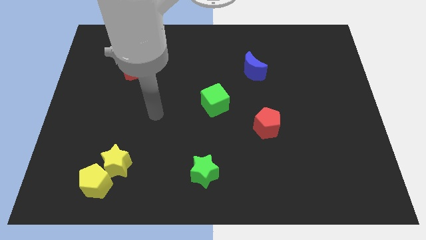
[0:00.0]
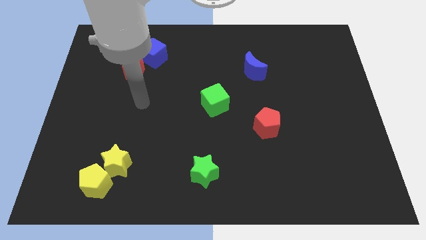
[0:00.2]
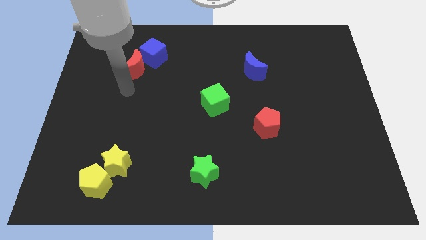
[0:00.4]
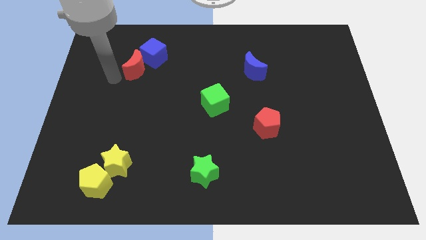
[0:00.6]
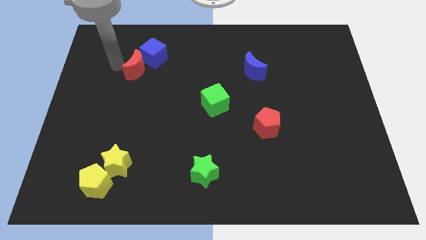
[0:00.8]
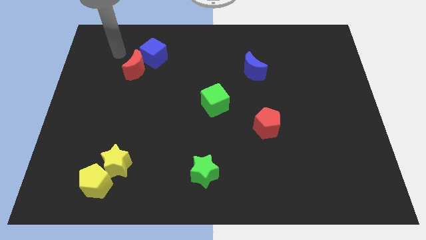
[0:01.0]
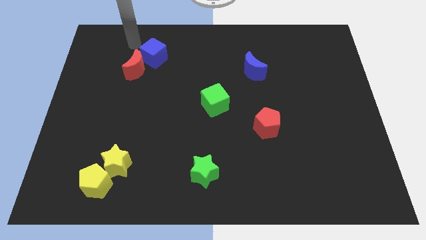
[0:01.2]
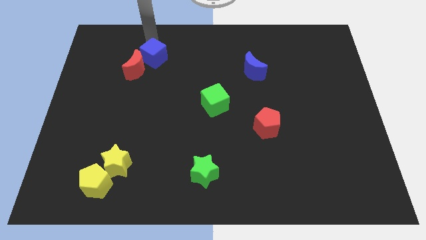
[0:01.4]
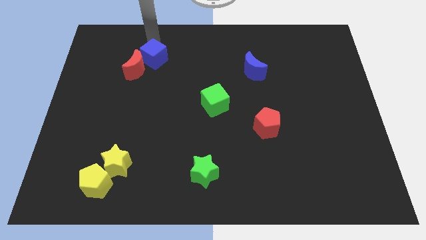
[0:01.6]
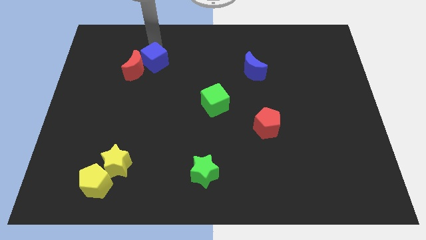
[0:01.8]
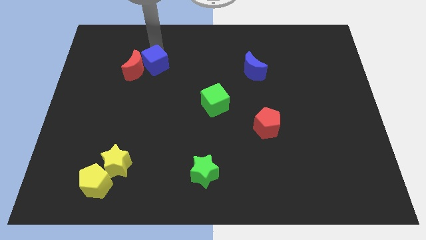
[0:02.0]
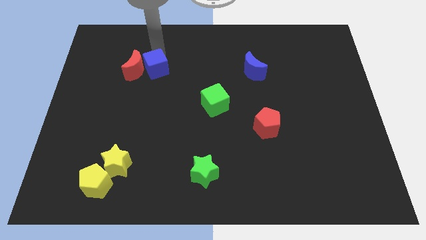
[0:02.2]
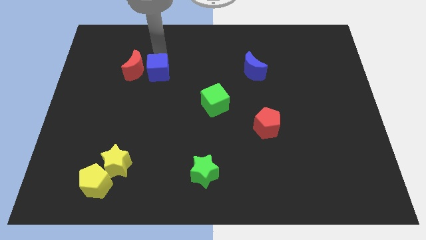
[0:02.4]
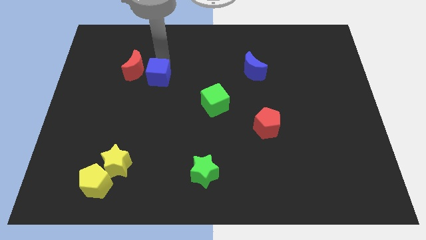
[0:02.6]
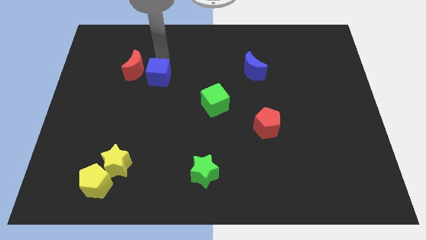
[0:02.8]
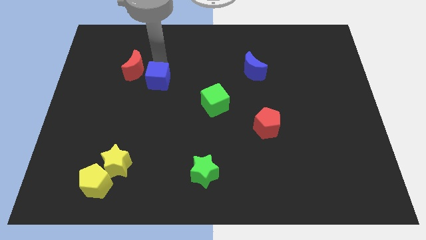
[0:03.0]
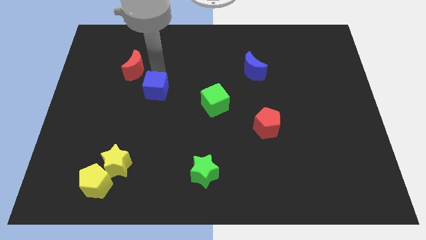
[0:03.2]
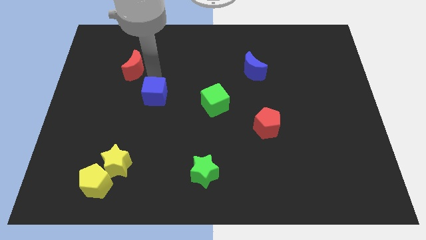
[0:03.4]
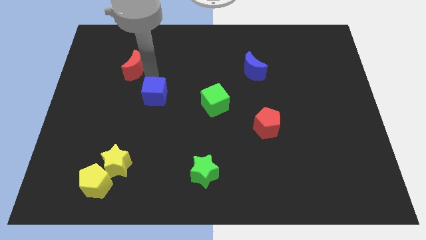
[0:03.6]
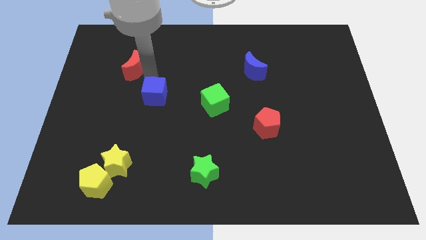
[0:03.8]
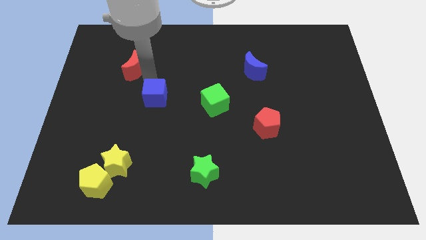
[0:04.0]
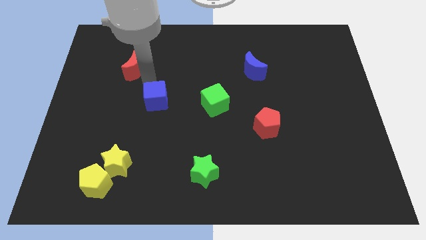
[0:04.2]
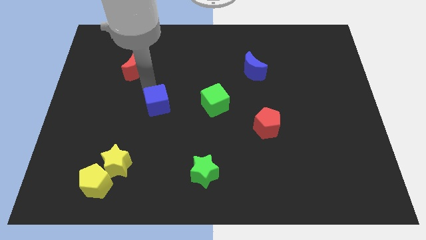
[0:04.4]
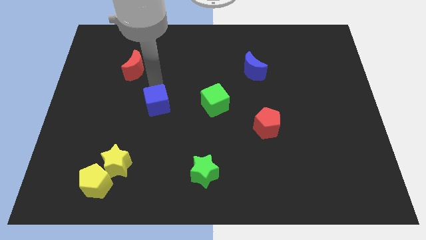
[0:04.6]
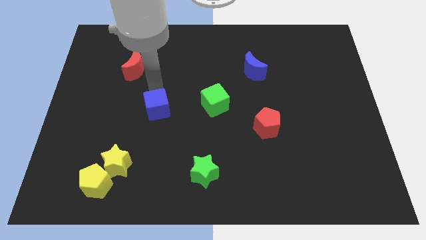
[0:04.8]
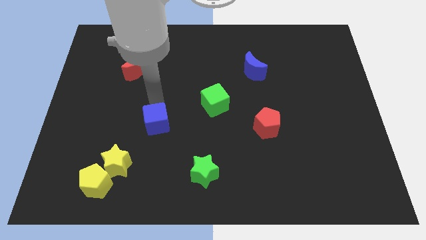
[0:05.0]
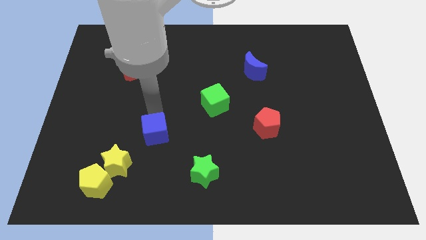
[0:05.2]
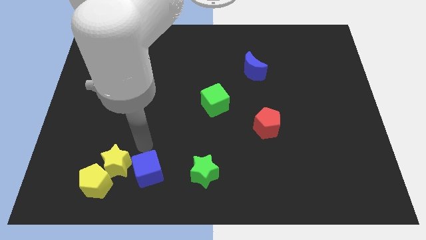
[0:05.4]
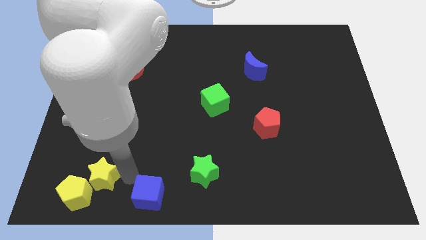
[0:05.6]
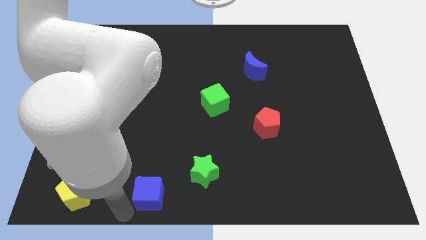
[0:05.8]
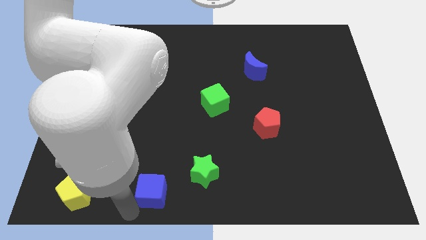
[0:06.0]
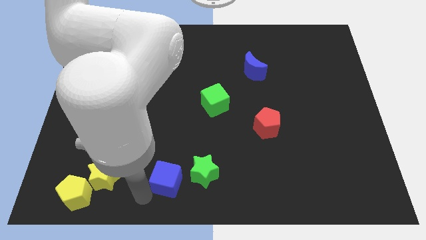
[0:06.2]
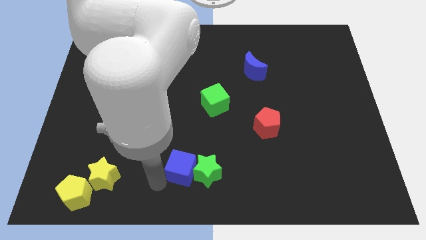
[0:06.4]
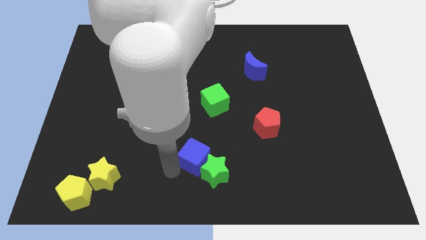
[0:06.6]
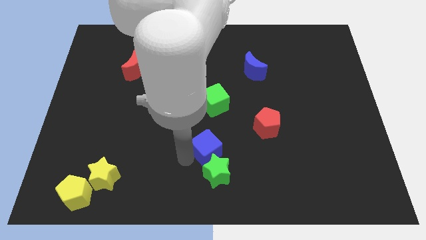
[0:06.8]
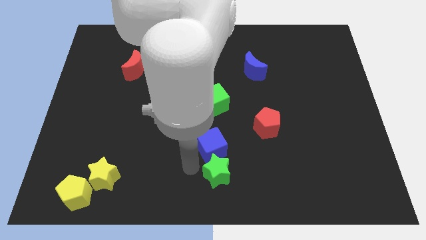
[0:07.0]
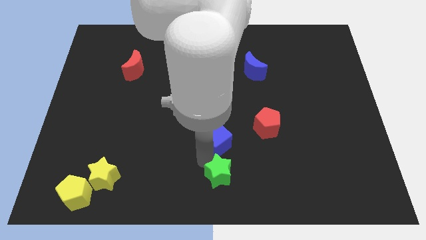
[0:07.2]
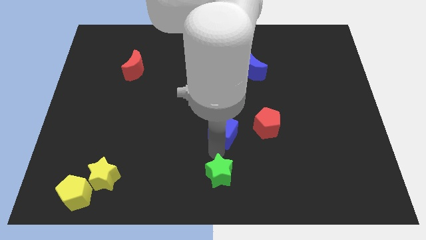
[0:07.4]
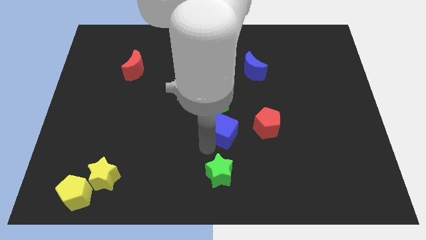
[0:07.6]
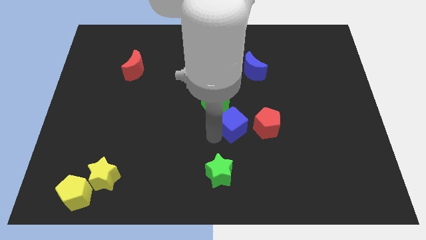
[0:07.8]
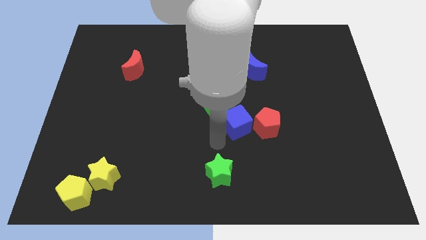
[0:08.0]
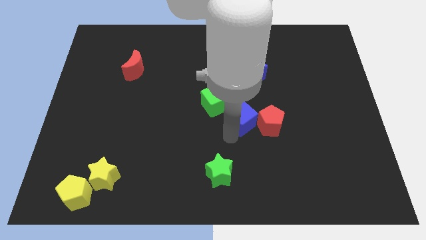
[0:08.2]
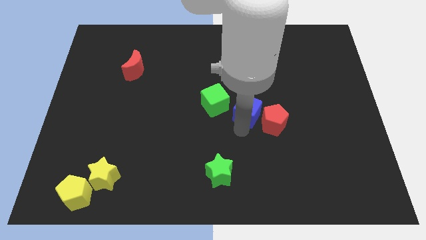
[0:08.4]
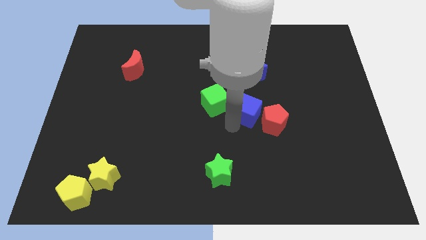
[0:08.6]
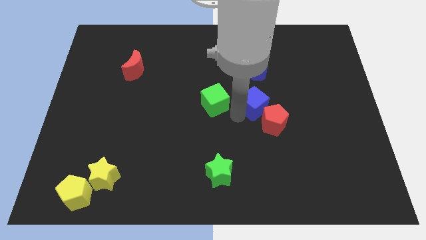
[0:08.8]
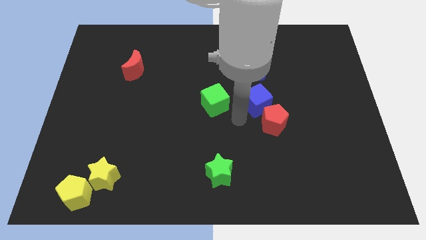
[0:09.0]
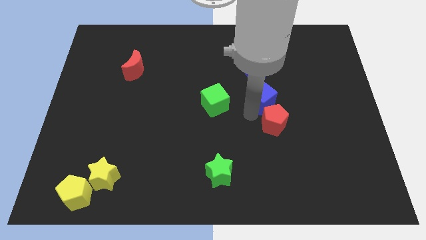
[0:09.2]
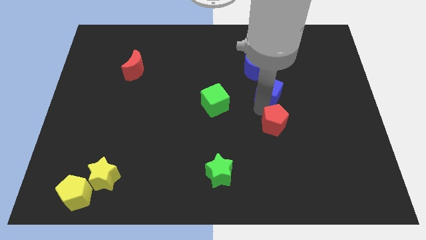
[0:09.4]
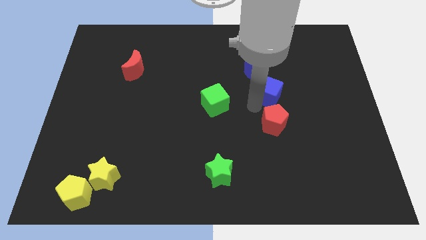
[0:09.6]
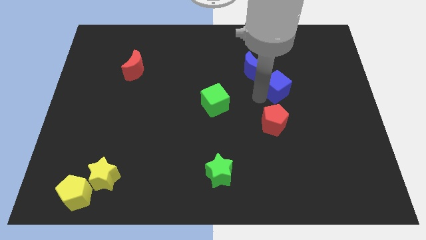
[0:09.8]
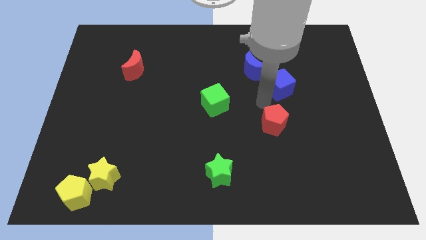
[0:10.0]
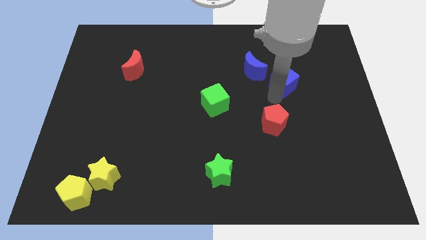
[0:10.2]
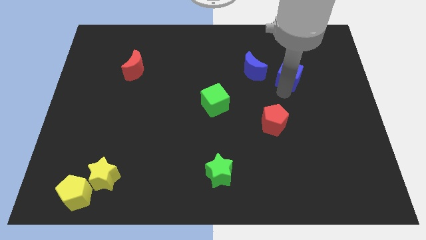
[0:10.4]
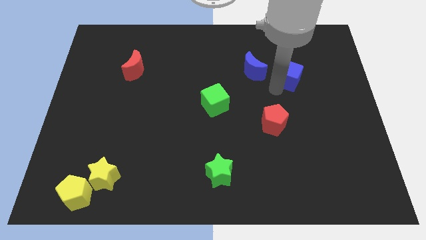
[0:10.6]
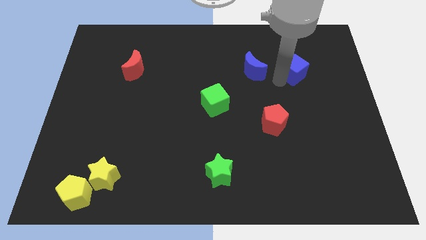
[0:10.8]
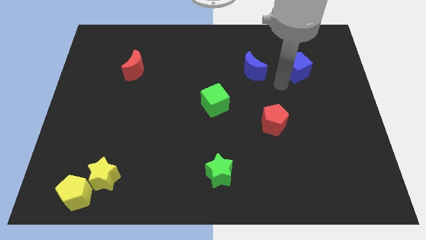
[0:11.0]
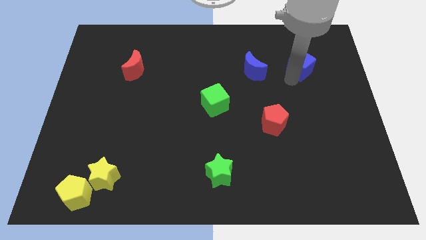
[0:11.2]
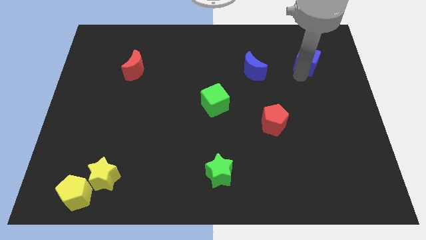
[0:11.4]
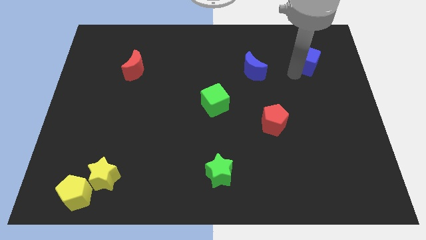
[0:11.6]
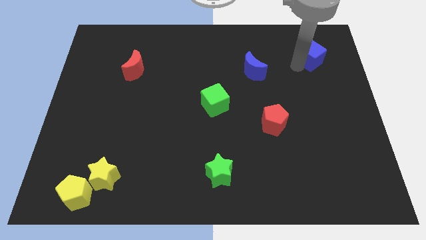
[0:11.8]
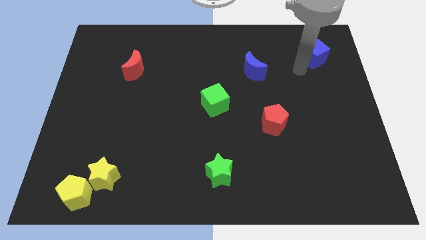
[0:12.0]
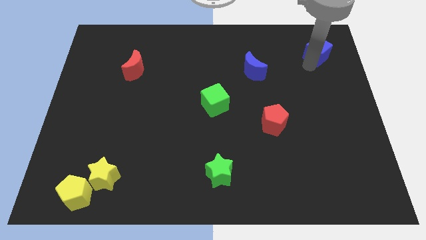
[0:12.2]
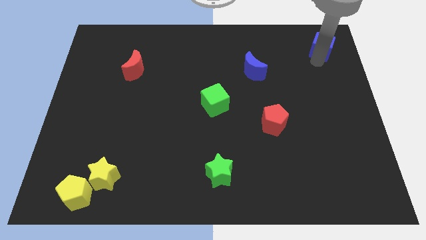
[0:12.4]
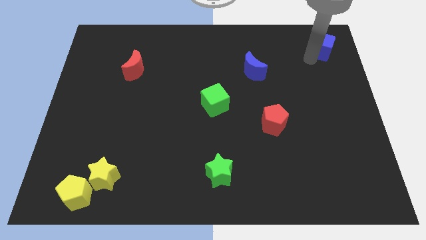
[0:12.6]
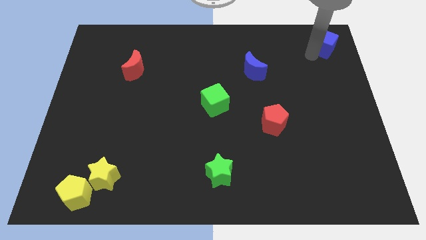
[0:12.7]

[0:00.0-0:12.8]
move the blue cube to the top right corner
